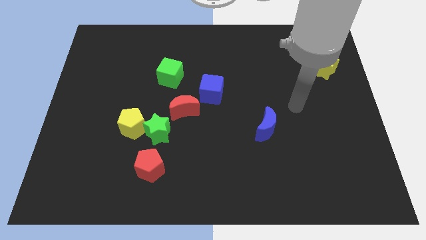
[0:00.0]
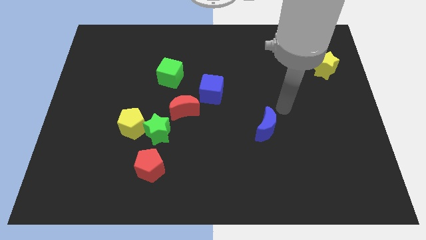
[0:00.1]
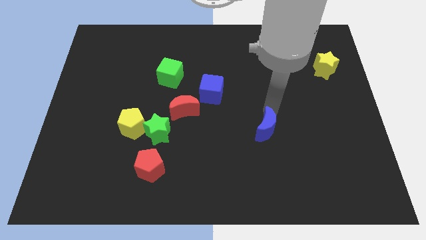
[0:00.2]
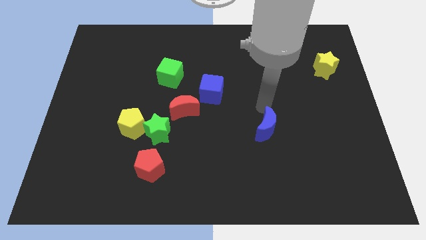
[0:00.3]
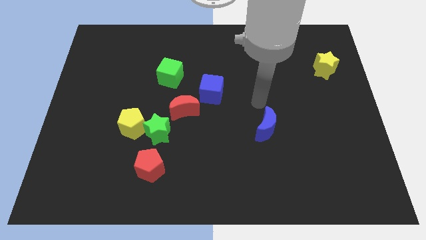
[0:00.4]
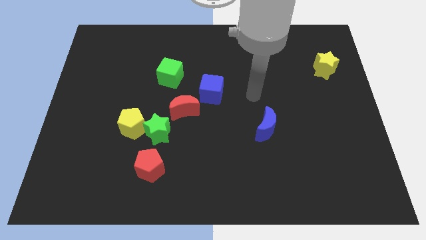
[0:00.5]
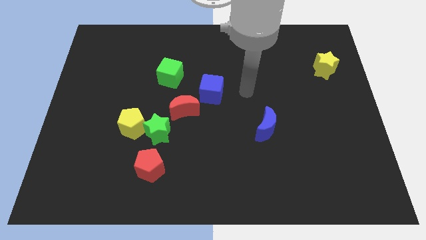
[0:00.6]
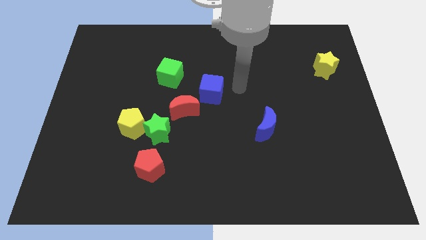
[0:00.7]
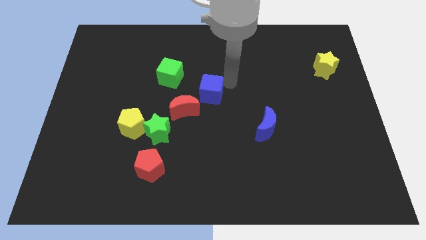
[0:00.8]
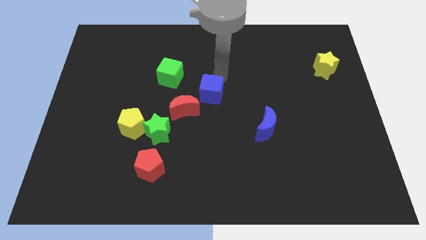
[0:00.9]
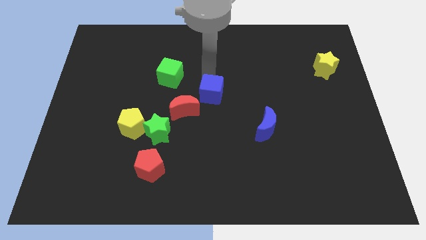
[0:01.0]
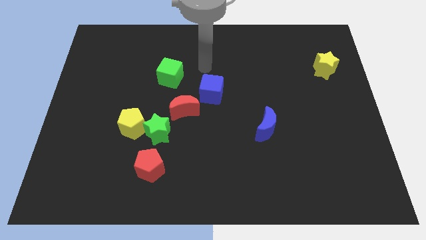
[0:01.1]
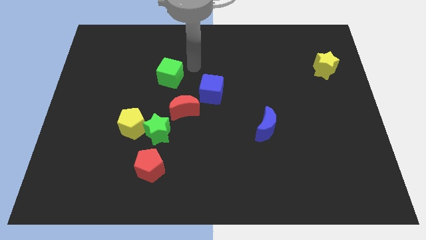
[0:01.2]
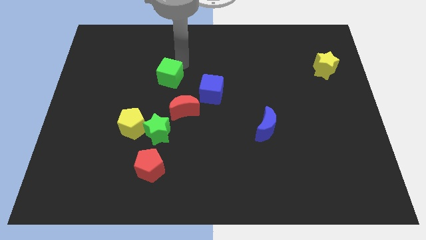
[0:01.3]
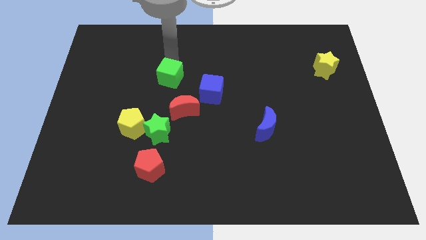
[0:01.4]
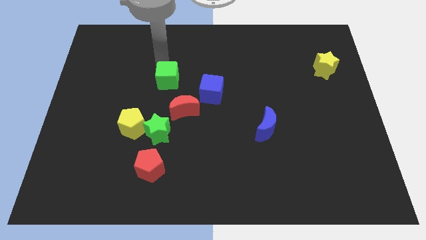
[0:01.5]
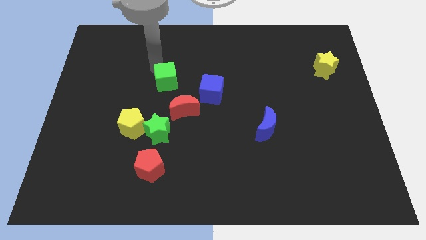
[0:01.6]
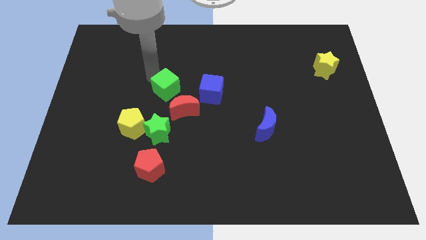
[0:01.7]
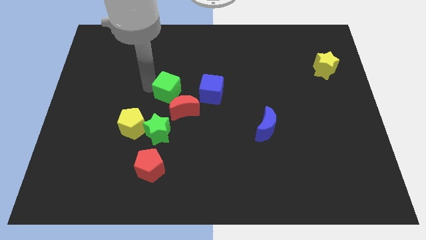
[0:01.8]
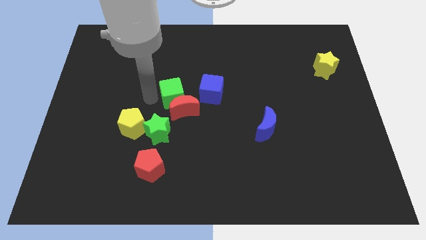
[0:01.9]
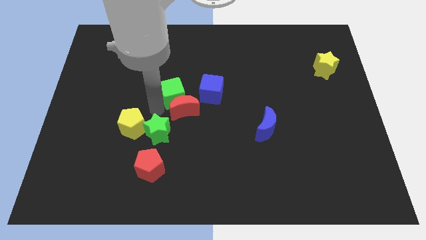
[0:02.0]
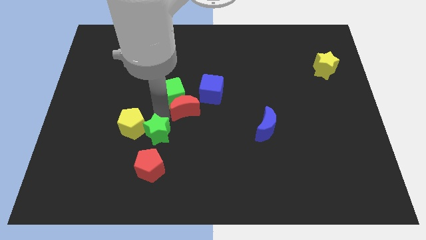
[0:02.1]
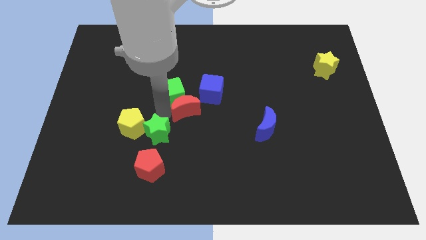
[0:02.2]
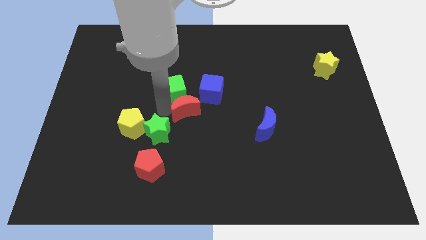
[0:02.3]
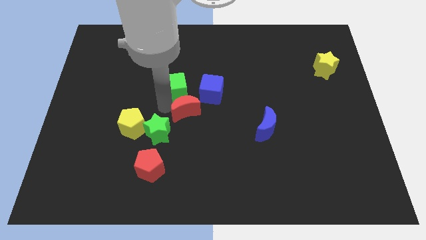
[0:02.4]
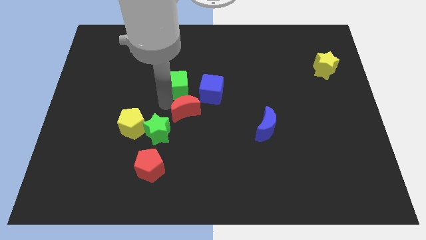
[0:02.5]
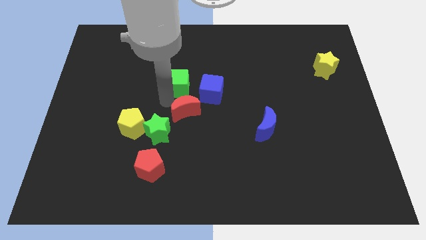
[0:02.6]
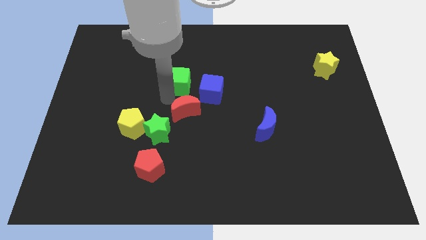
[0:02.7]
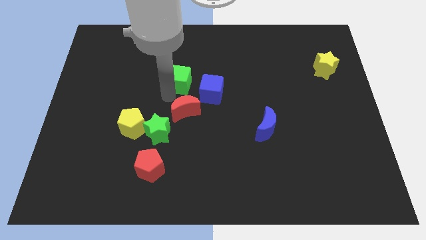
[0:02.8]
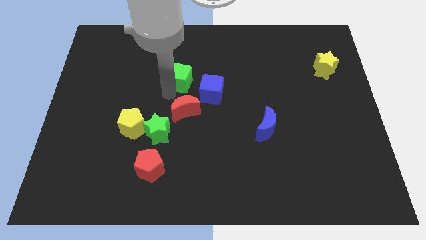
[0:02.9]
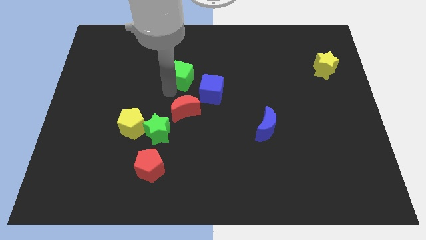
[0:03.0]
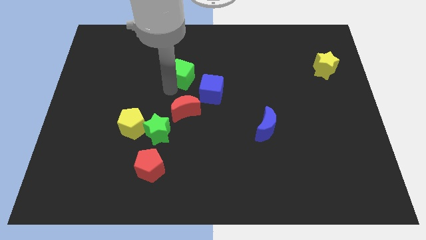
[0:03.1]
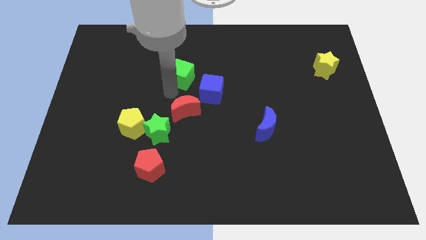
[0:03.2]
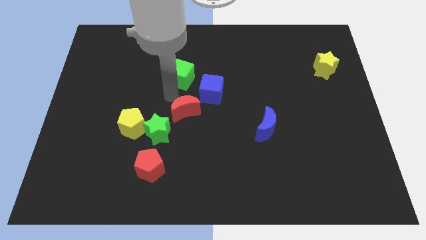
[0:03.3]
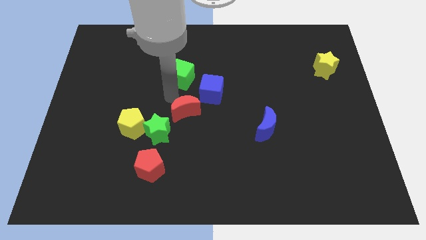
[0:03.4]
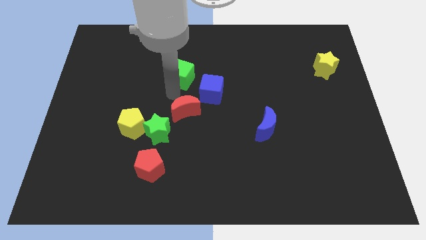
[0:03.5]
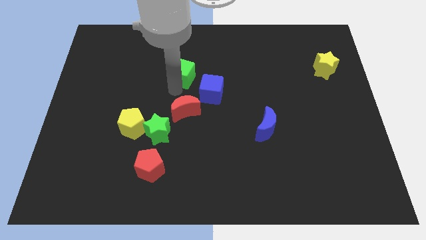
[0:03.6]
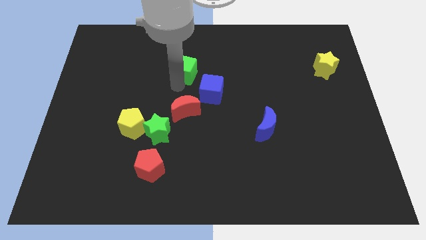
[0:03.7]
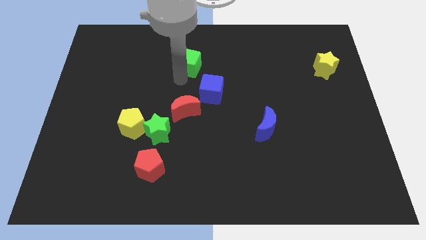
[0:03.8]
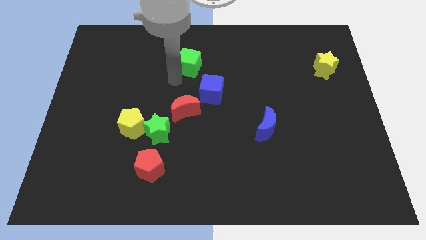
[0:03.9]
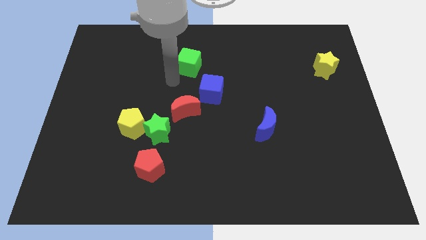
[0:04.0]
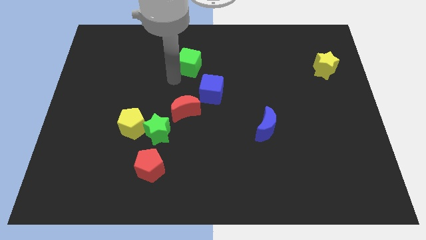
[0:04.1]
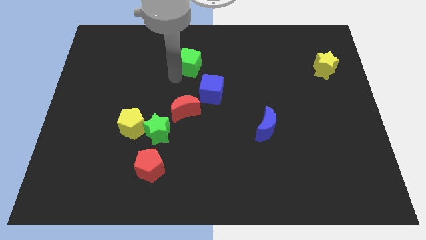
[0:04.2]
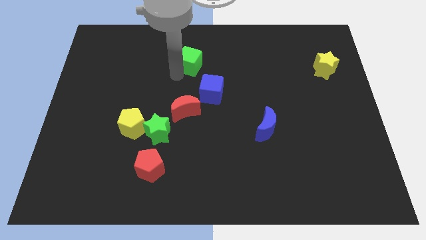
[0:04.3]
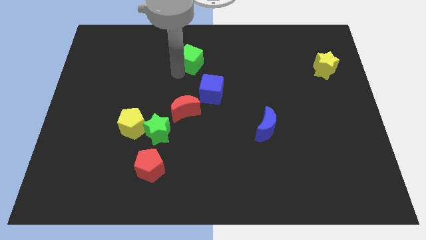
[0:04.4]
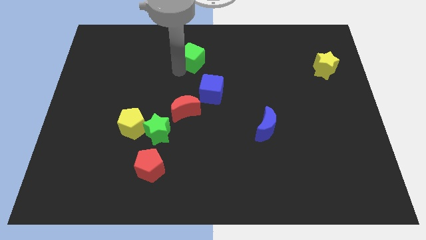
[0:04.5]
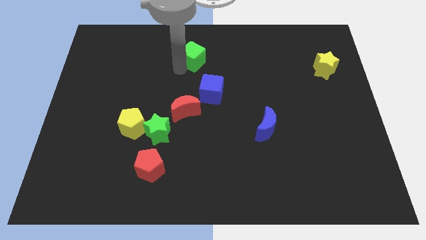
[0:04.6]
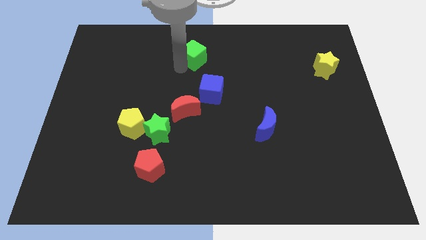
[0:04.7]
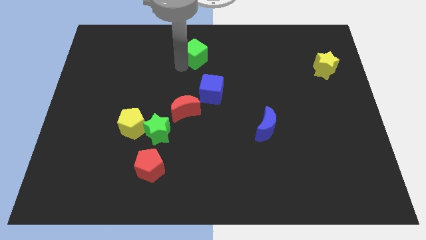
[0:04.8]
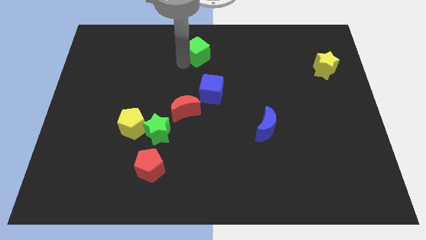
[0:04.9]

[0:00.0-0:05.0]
put the green cube to the towards your base

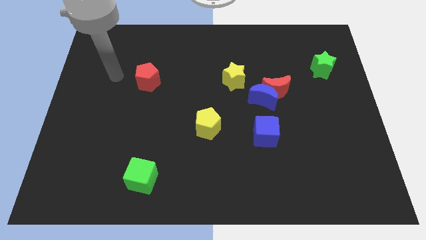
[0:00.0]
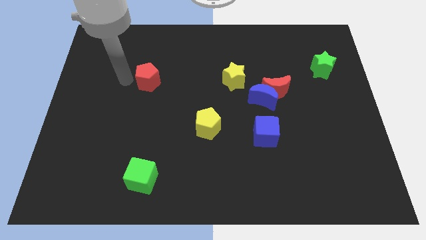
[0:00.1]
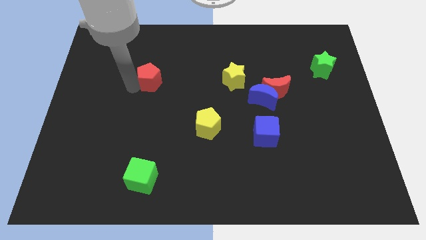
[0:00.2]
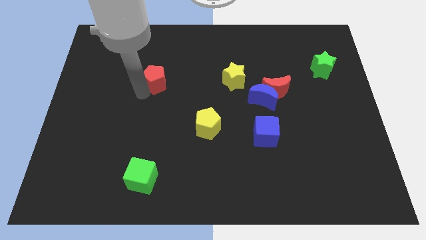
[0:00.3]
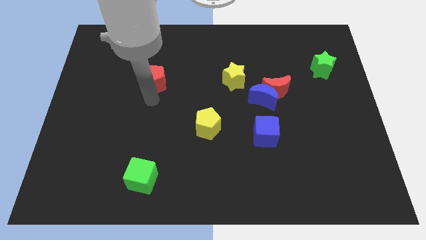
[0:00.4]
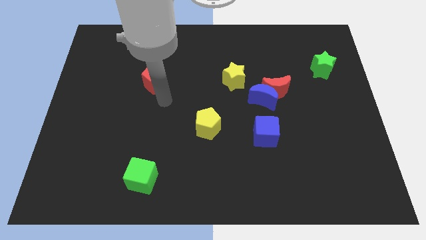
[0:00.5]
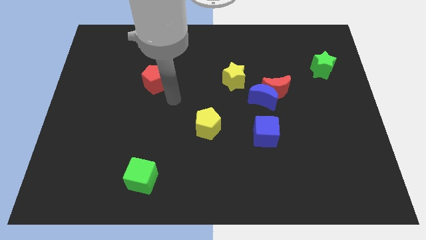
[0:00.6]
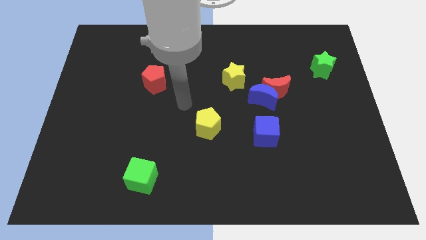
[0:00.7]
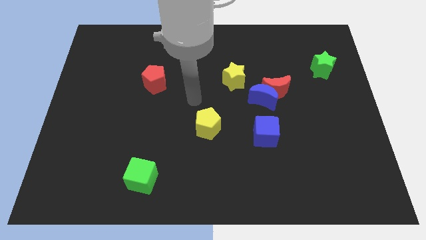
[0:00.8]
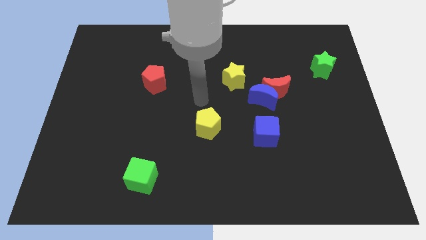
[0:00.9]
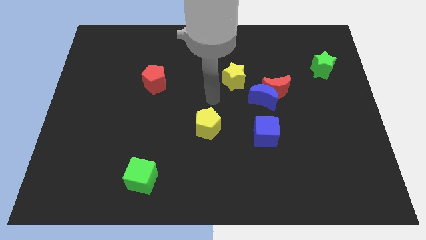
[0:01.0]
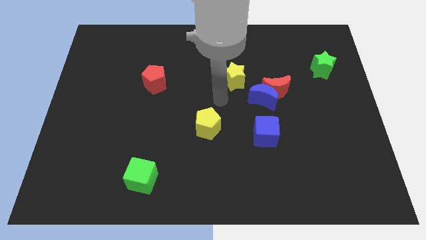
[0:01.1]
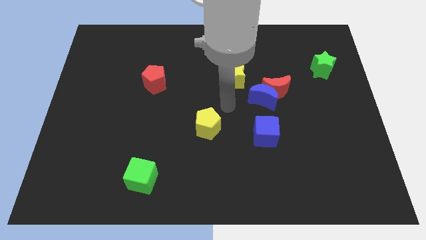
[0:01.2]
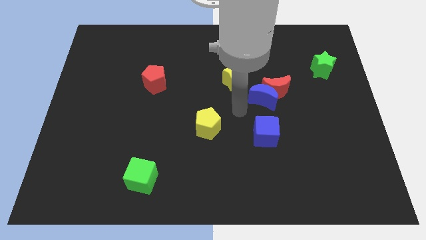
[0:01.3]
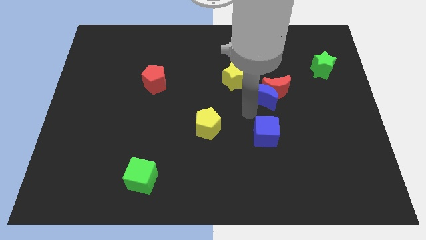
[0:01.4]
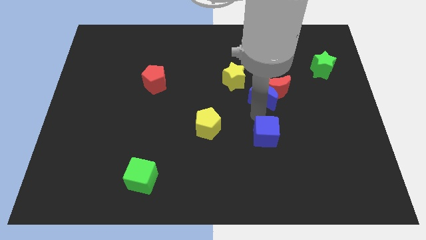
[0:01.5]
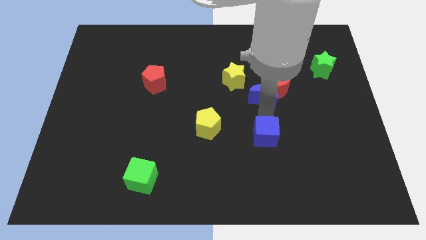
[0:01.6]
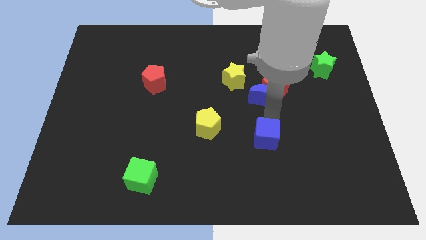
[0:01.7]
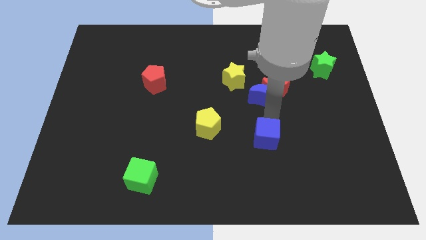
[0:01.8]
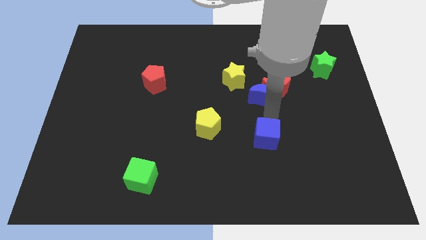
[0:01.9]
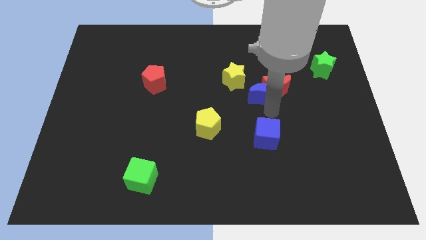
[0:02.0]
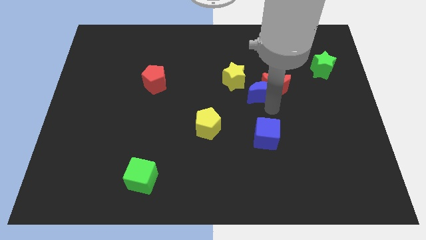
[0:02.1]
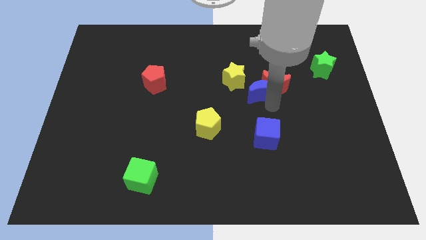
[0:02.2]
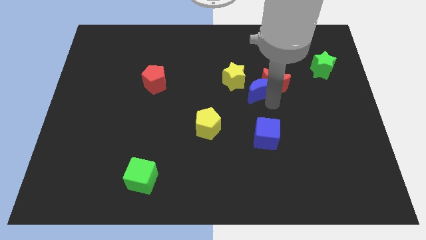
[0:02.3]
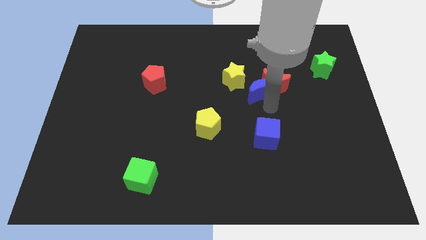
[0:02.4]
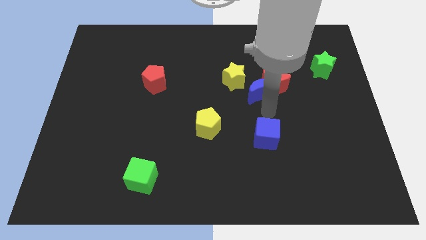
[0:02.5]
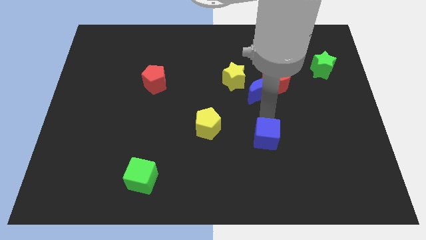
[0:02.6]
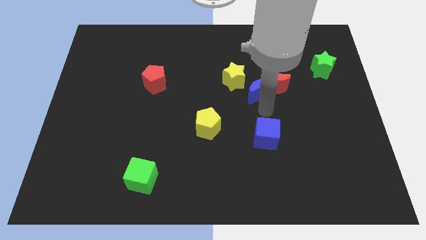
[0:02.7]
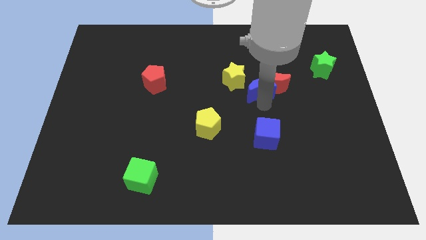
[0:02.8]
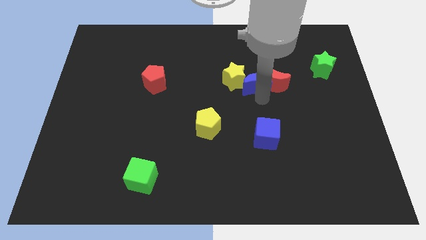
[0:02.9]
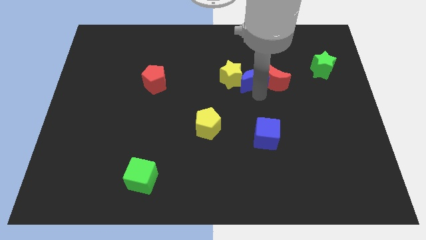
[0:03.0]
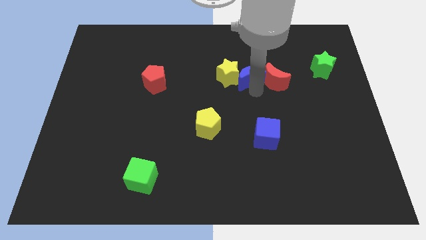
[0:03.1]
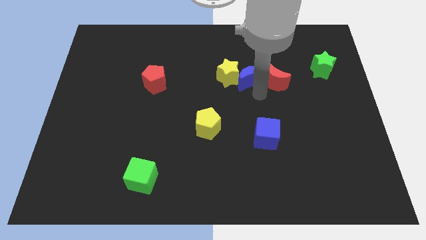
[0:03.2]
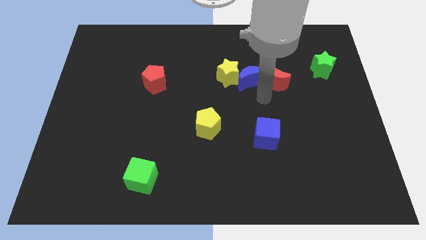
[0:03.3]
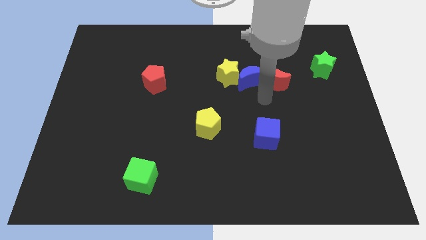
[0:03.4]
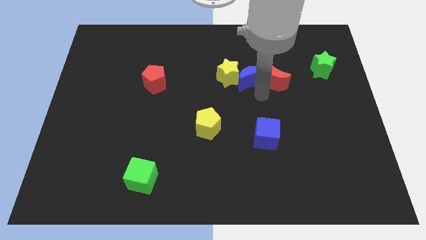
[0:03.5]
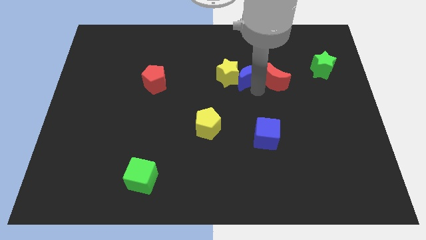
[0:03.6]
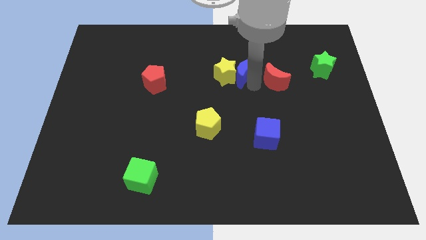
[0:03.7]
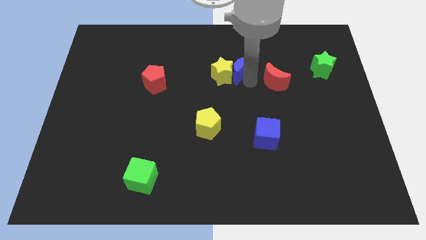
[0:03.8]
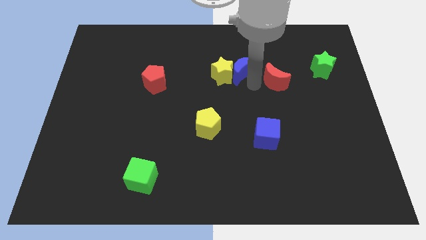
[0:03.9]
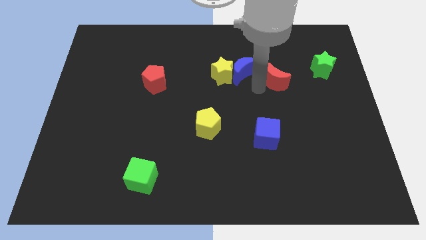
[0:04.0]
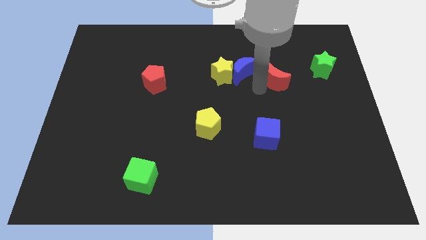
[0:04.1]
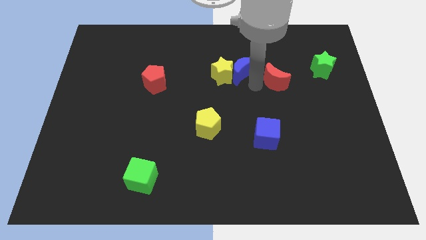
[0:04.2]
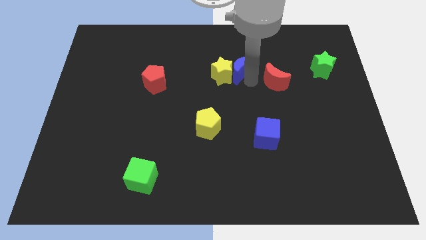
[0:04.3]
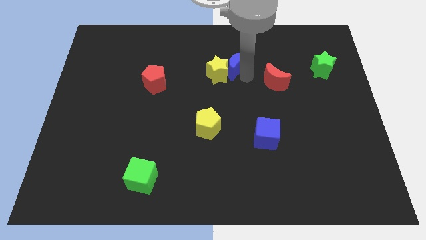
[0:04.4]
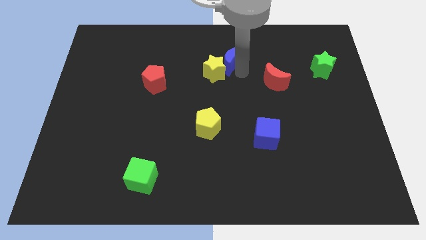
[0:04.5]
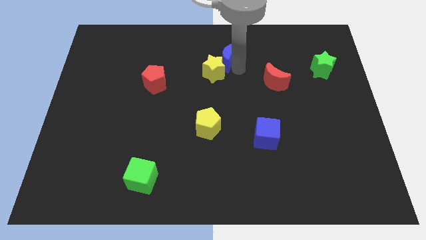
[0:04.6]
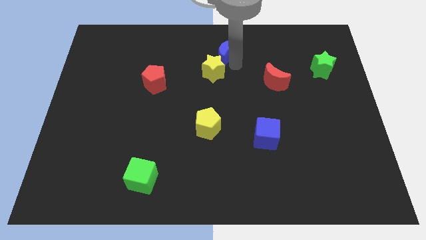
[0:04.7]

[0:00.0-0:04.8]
push the blue moon to the top
